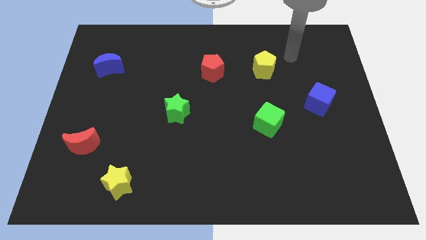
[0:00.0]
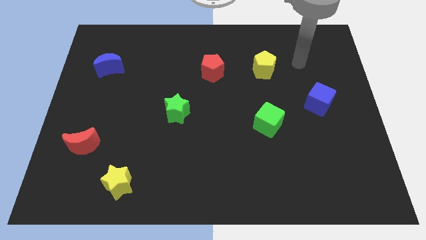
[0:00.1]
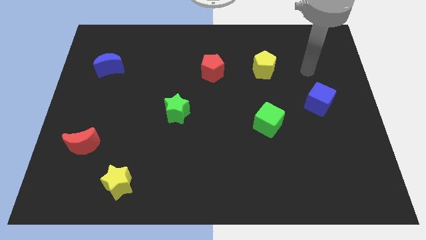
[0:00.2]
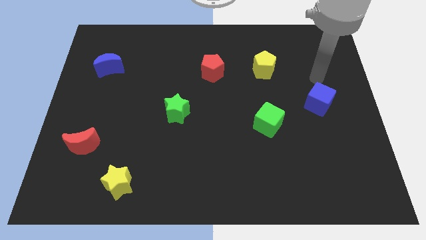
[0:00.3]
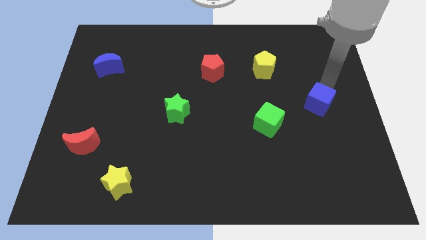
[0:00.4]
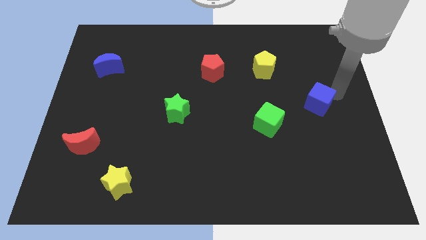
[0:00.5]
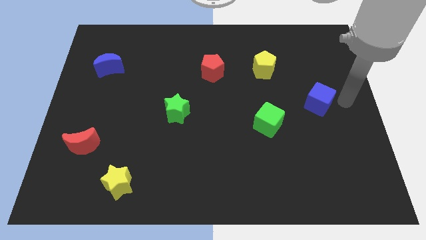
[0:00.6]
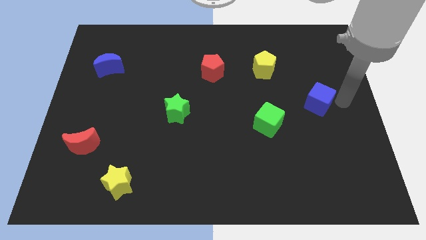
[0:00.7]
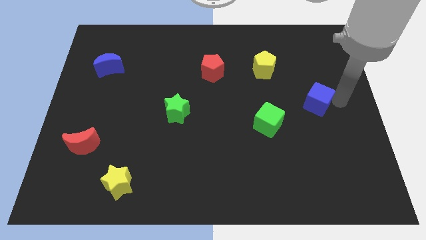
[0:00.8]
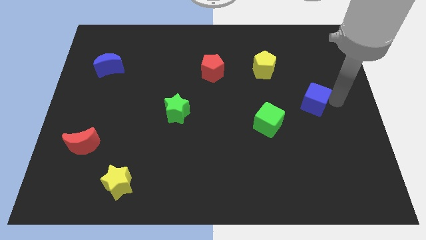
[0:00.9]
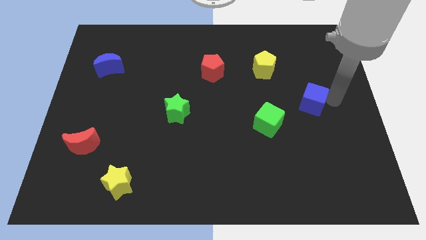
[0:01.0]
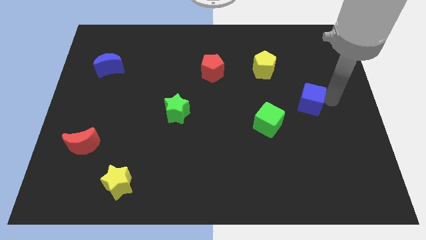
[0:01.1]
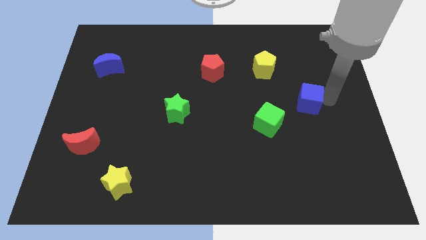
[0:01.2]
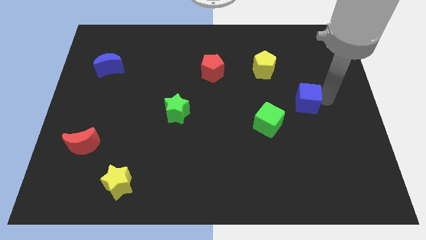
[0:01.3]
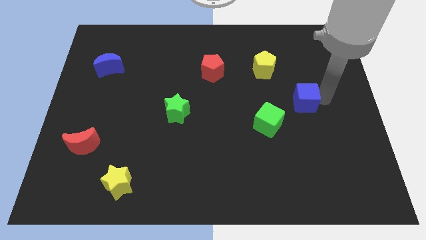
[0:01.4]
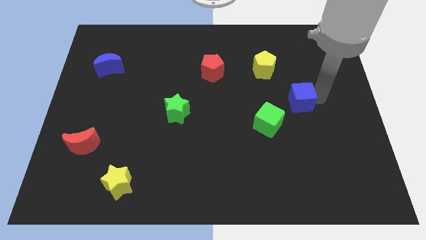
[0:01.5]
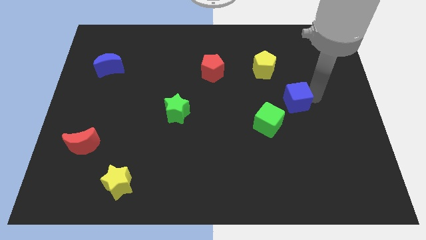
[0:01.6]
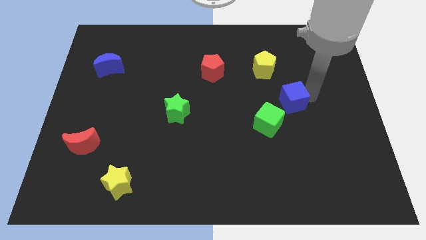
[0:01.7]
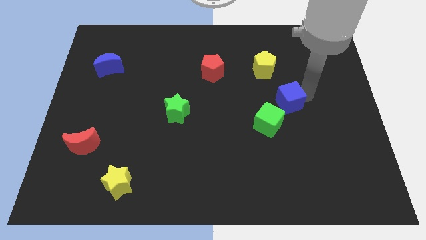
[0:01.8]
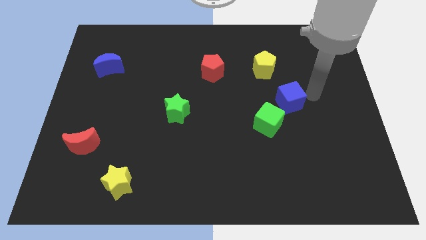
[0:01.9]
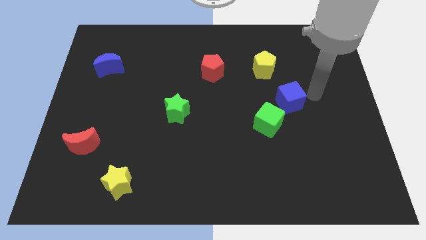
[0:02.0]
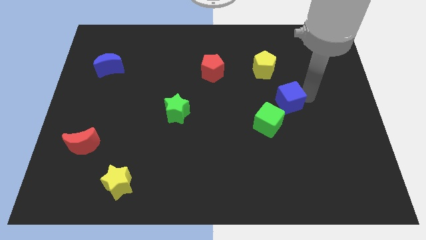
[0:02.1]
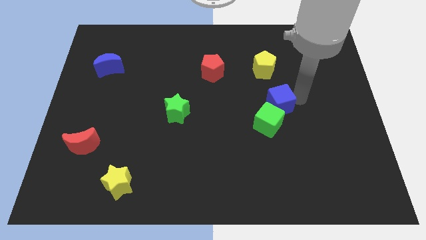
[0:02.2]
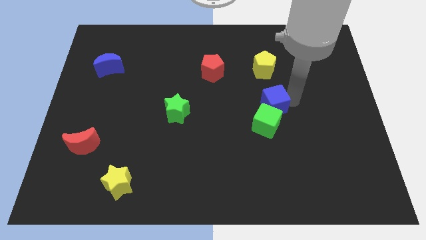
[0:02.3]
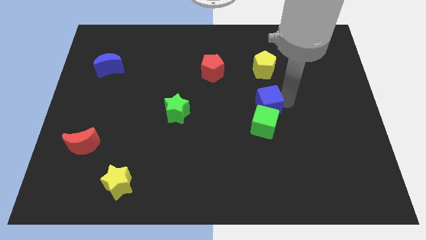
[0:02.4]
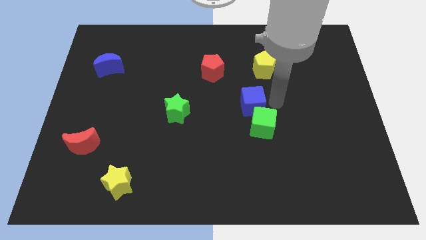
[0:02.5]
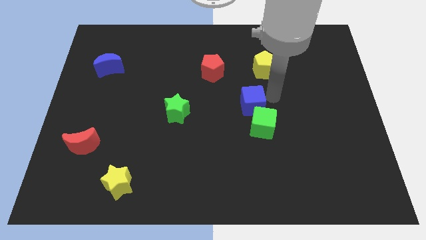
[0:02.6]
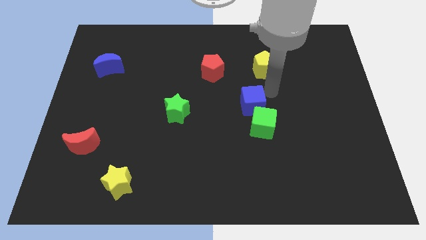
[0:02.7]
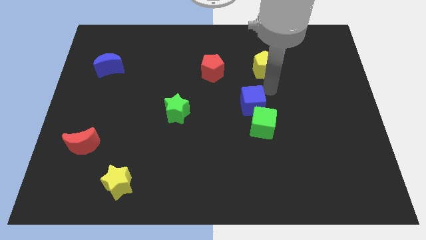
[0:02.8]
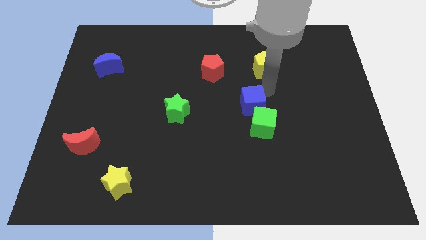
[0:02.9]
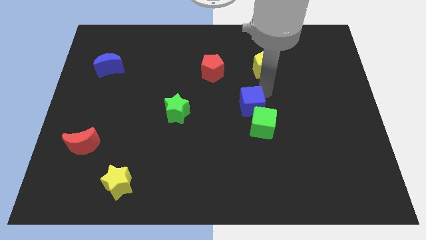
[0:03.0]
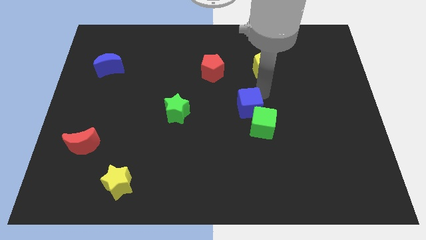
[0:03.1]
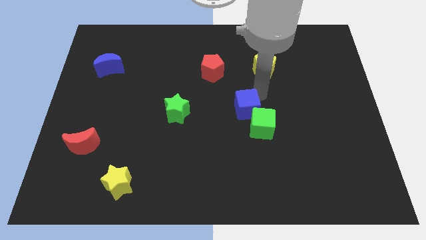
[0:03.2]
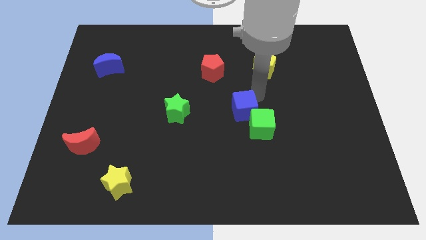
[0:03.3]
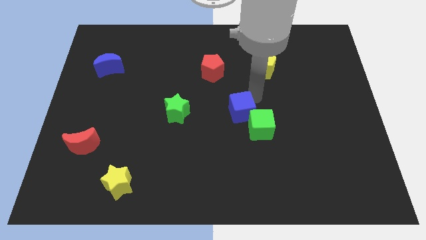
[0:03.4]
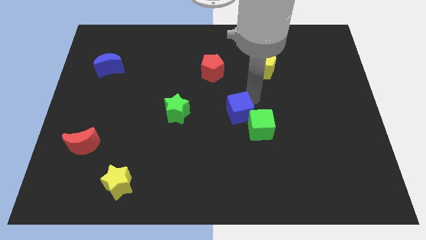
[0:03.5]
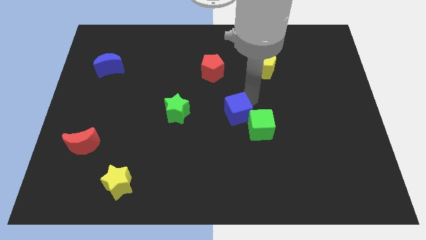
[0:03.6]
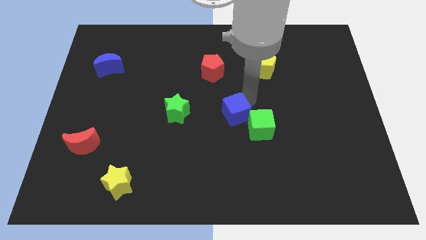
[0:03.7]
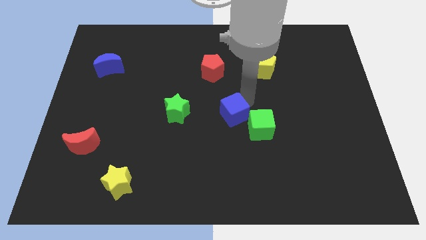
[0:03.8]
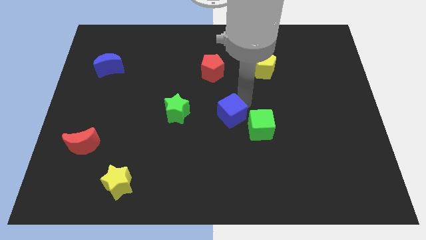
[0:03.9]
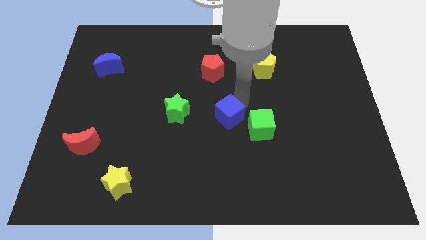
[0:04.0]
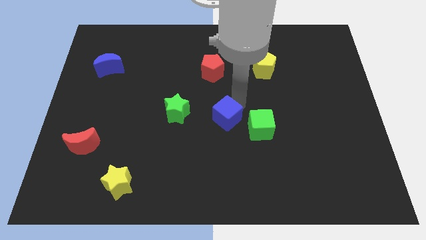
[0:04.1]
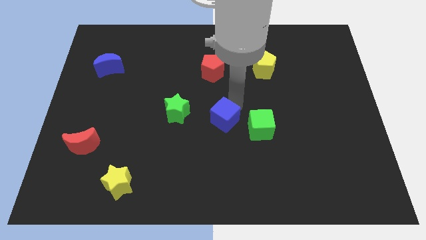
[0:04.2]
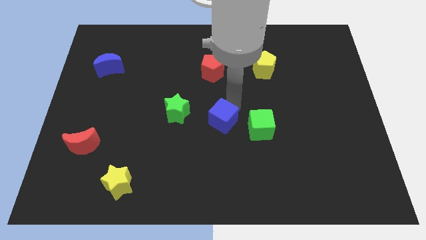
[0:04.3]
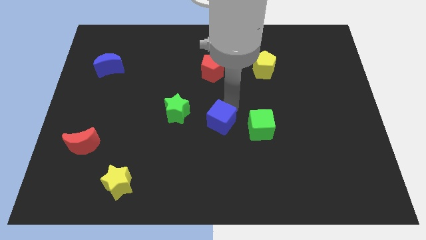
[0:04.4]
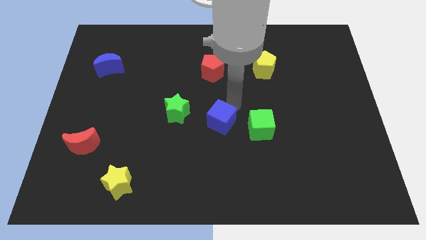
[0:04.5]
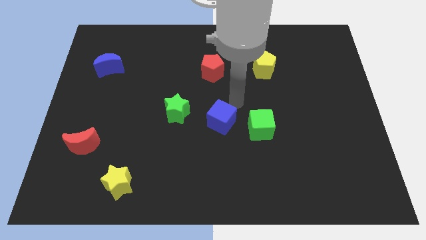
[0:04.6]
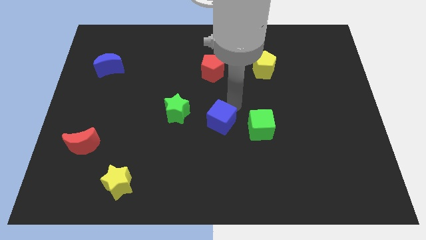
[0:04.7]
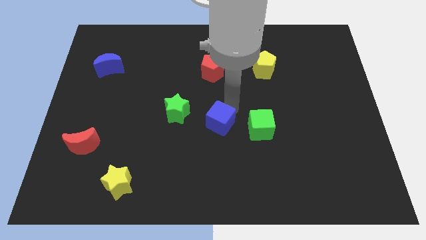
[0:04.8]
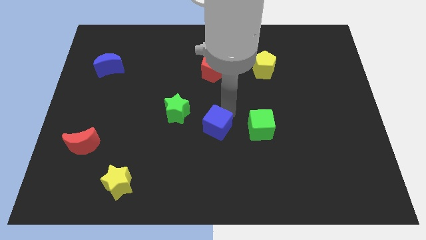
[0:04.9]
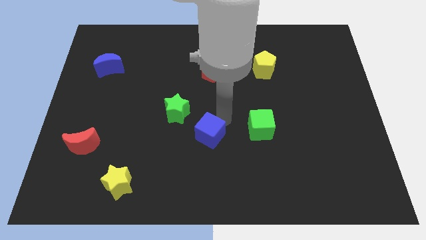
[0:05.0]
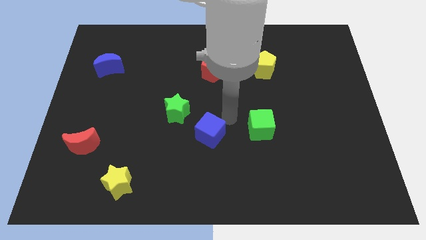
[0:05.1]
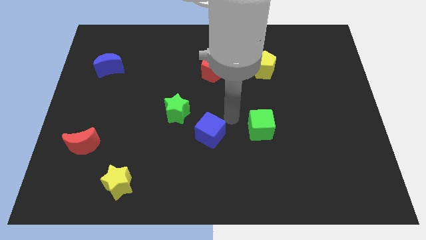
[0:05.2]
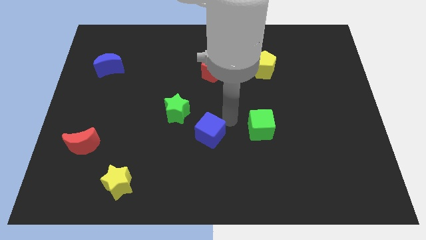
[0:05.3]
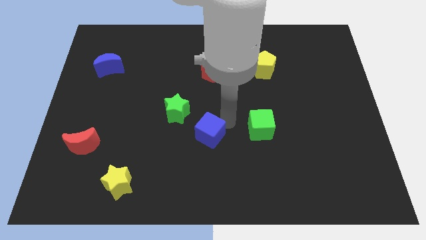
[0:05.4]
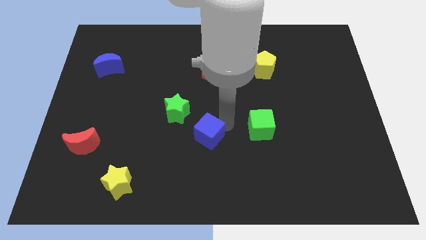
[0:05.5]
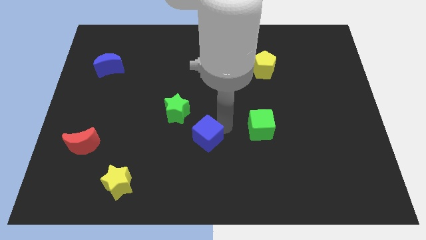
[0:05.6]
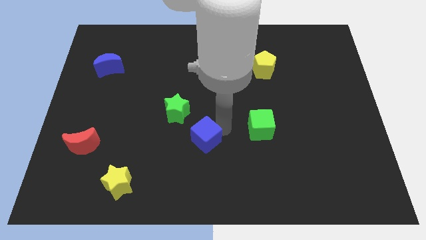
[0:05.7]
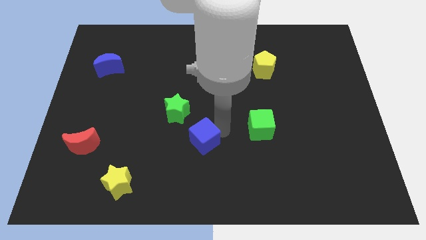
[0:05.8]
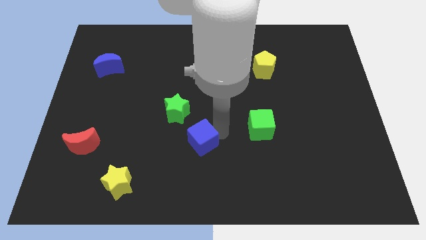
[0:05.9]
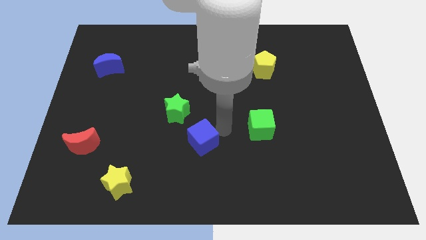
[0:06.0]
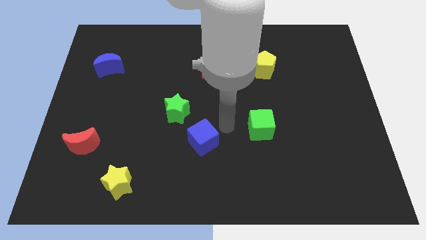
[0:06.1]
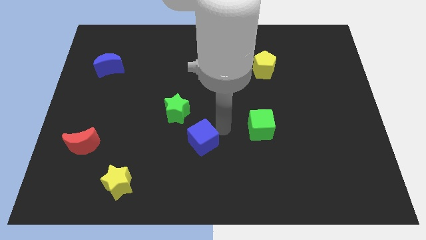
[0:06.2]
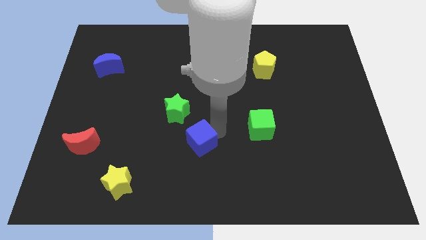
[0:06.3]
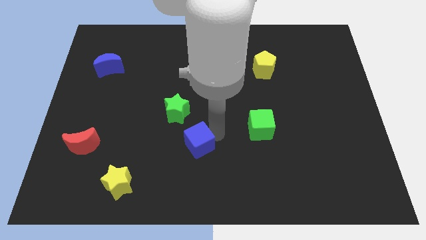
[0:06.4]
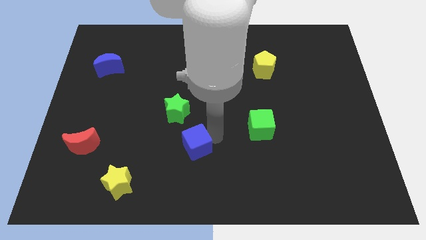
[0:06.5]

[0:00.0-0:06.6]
put the blue cube to the bottom of the green star

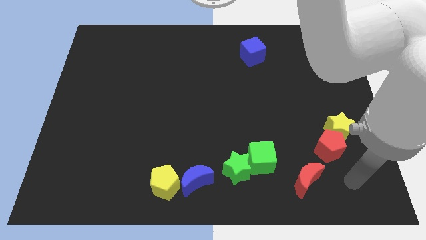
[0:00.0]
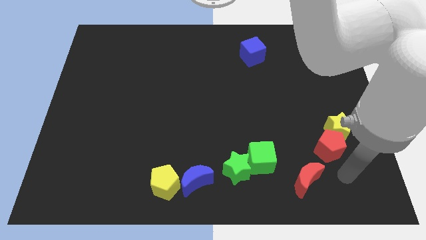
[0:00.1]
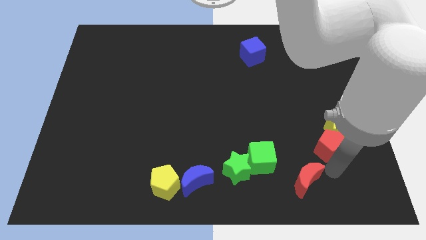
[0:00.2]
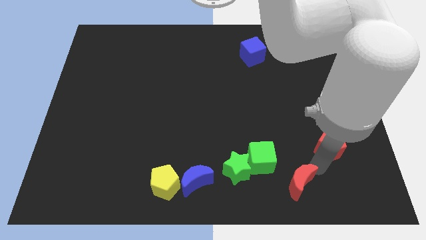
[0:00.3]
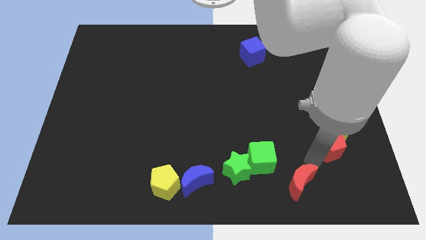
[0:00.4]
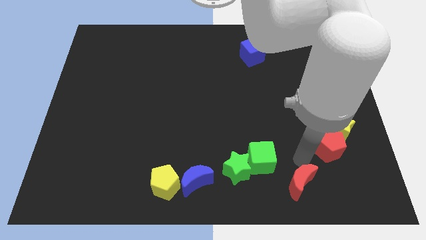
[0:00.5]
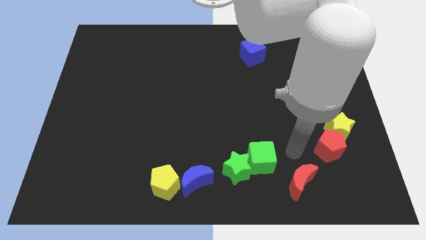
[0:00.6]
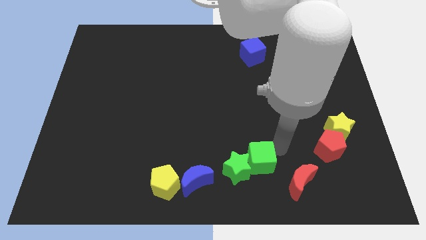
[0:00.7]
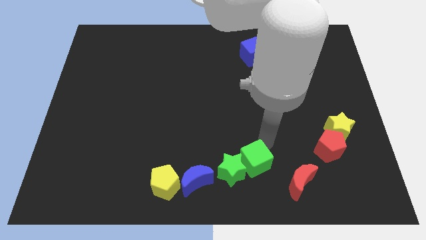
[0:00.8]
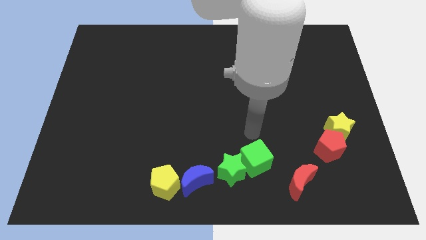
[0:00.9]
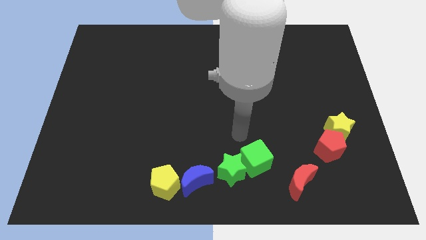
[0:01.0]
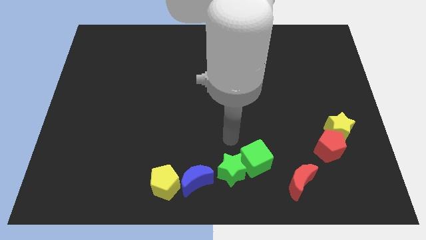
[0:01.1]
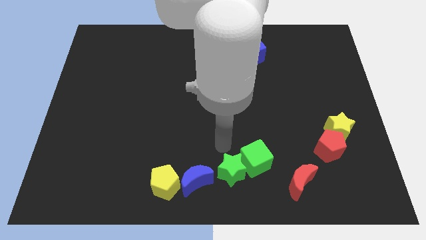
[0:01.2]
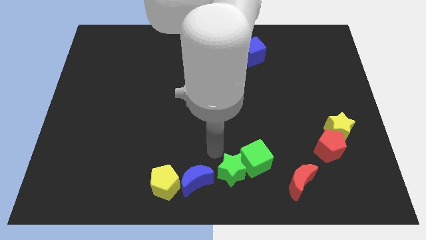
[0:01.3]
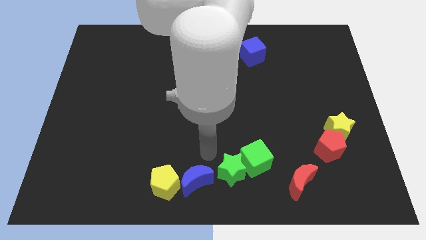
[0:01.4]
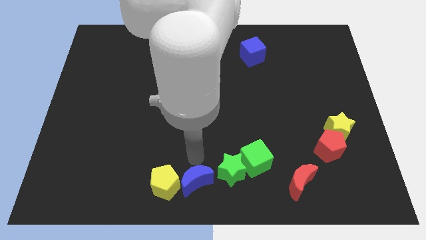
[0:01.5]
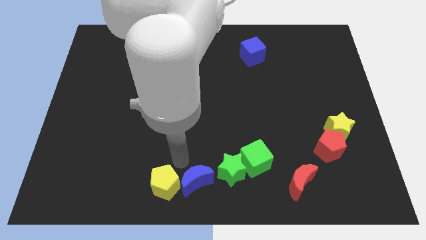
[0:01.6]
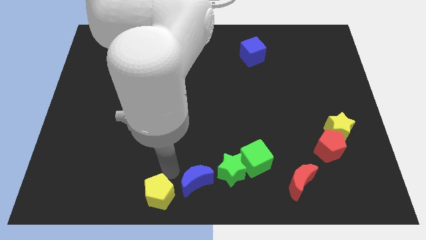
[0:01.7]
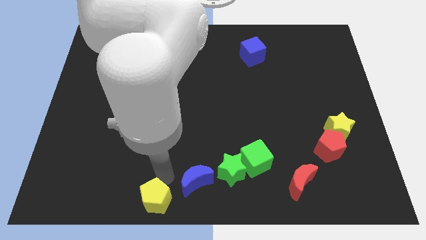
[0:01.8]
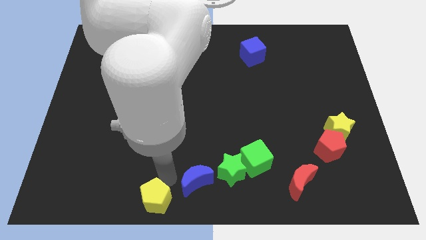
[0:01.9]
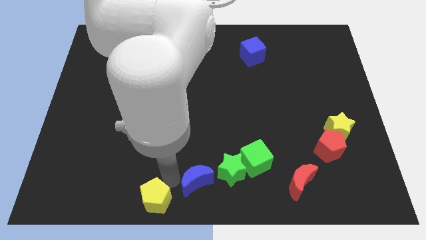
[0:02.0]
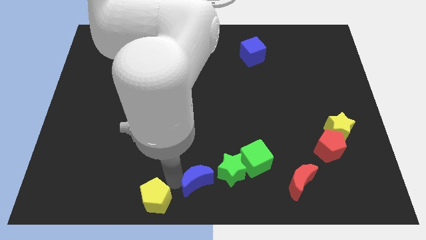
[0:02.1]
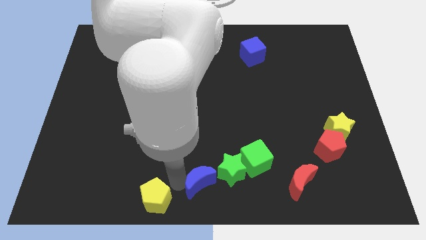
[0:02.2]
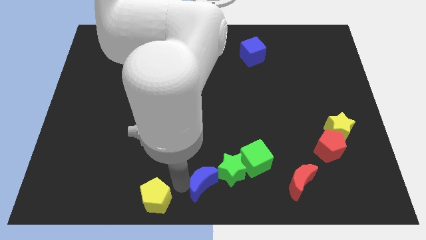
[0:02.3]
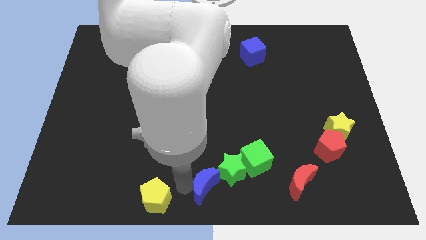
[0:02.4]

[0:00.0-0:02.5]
move the blue moon diagonally down and to the left of the green cube
